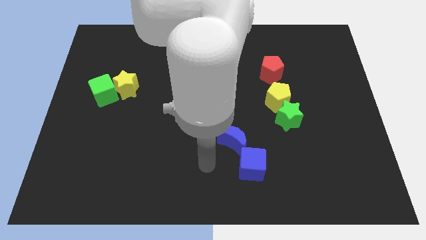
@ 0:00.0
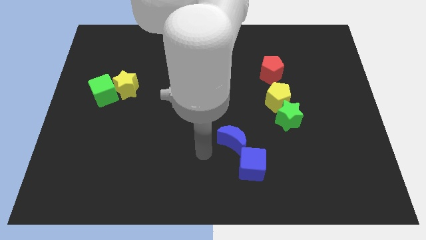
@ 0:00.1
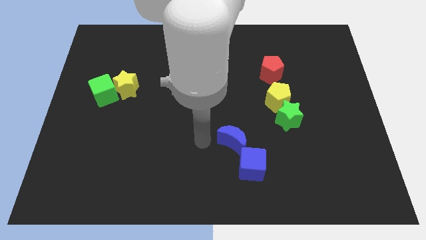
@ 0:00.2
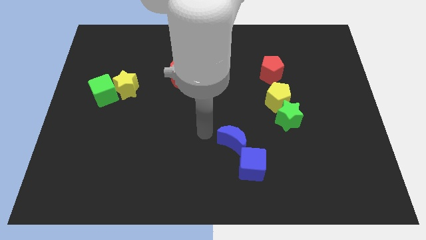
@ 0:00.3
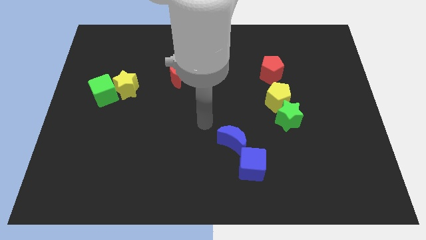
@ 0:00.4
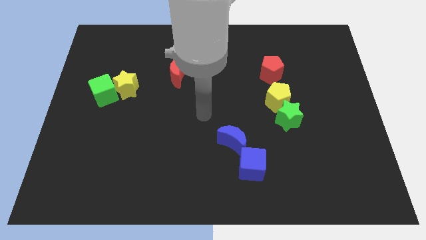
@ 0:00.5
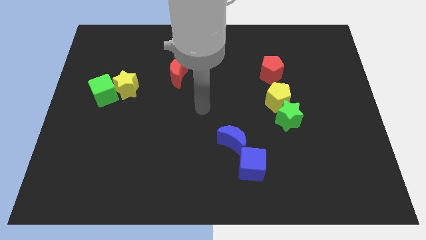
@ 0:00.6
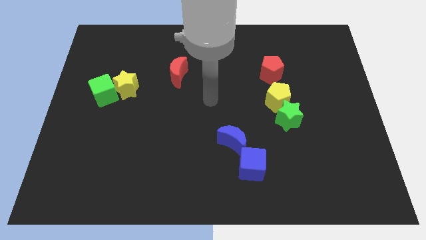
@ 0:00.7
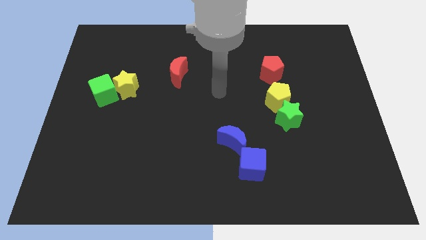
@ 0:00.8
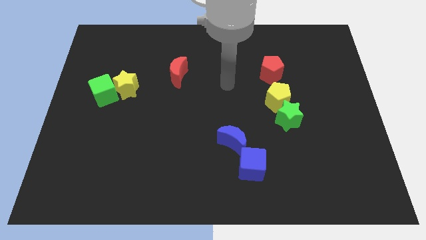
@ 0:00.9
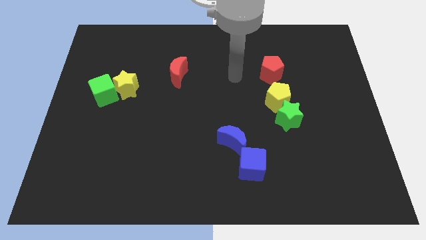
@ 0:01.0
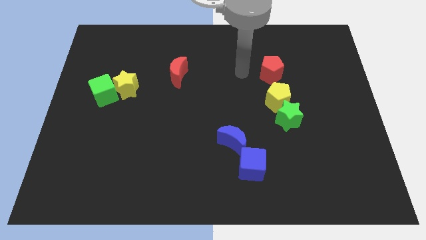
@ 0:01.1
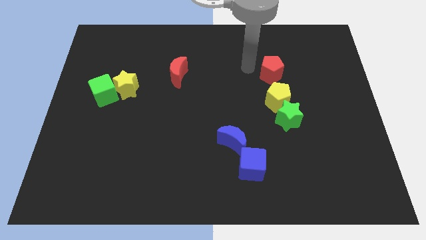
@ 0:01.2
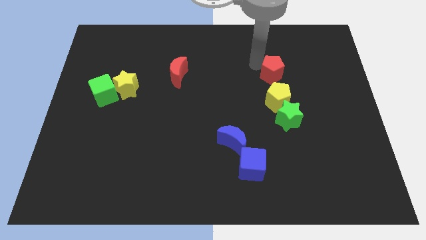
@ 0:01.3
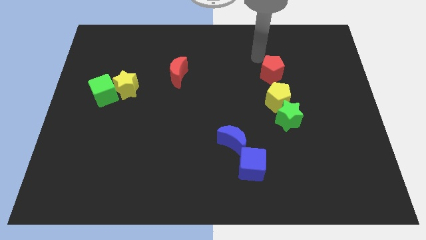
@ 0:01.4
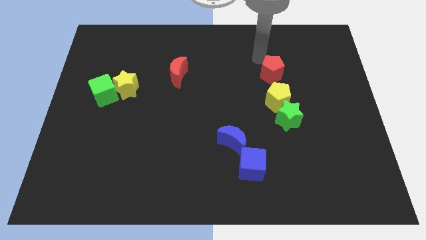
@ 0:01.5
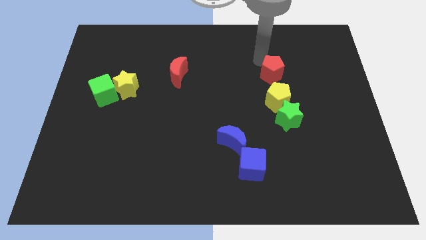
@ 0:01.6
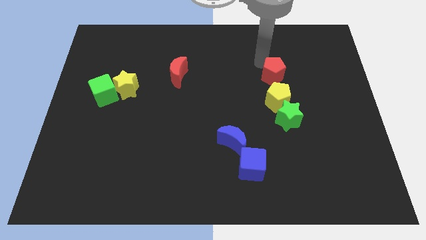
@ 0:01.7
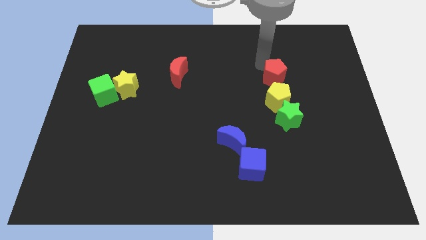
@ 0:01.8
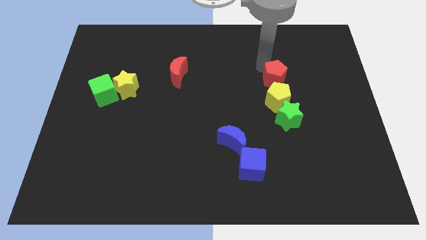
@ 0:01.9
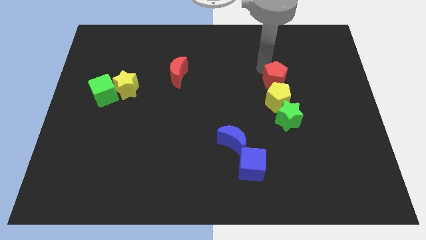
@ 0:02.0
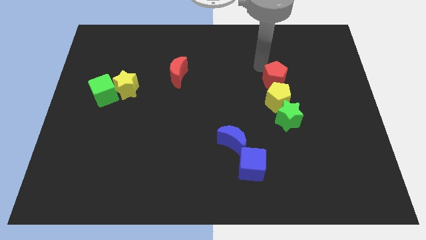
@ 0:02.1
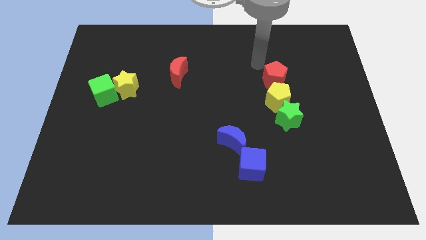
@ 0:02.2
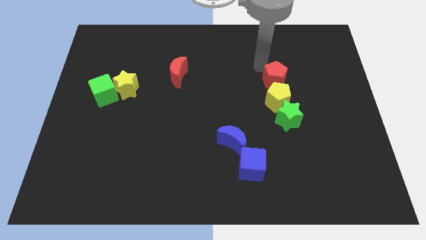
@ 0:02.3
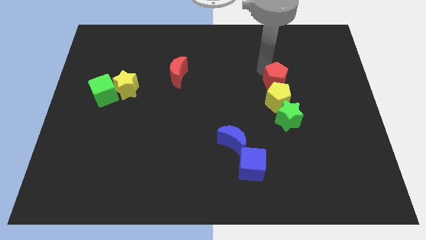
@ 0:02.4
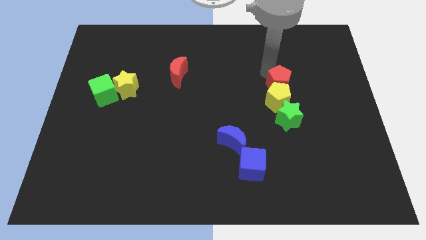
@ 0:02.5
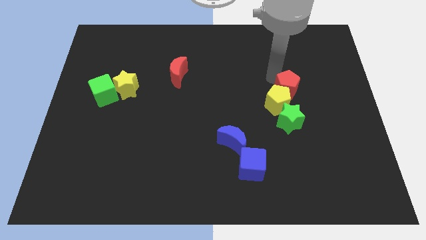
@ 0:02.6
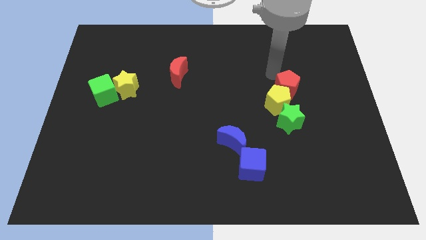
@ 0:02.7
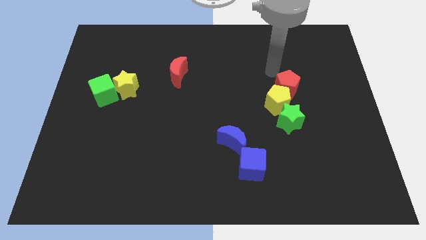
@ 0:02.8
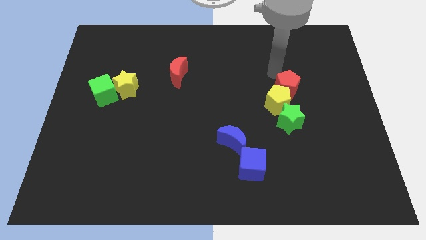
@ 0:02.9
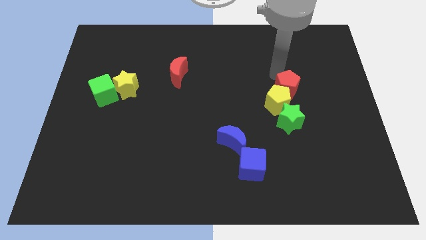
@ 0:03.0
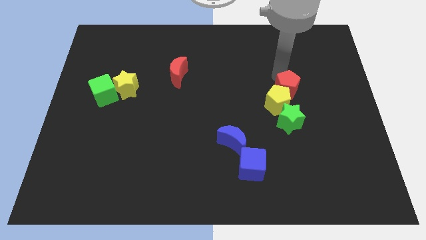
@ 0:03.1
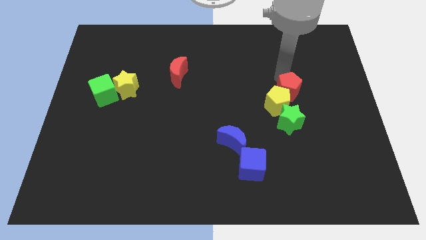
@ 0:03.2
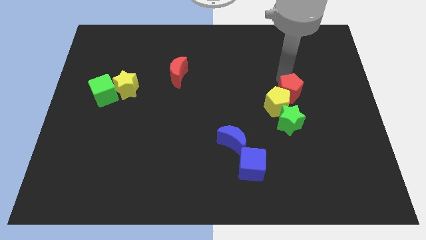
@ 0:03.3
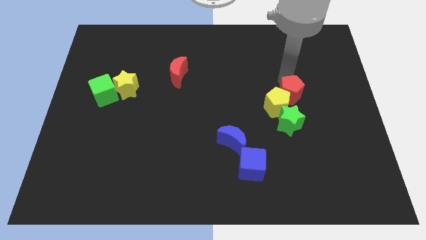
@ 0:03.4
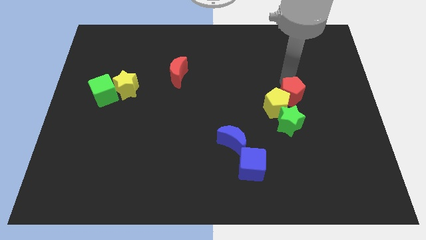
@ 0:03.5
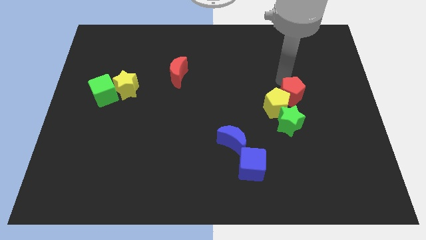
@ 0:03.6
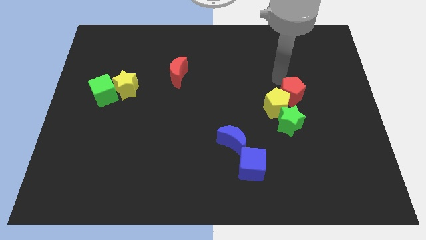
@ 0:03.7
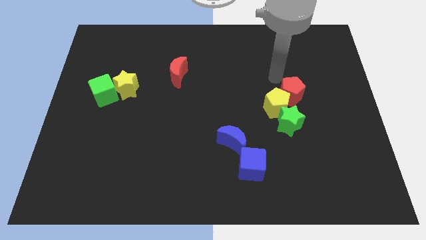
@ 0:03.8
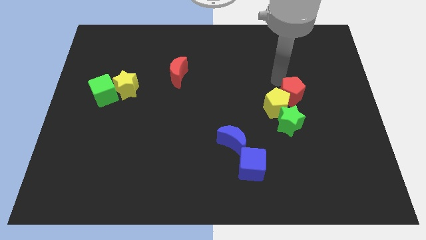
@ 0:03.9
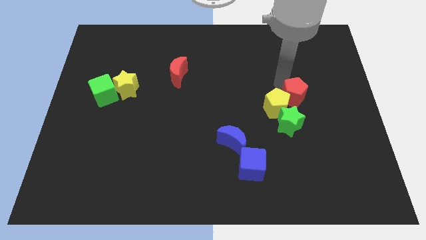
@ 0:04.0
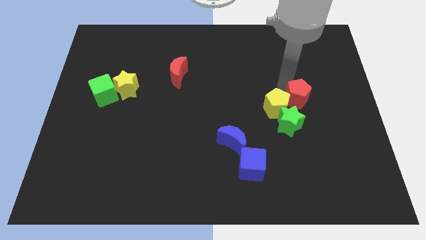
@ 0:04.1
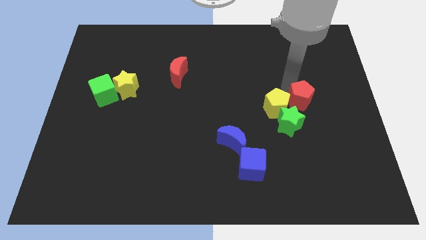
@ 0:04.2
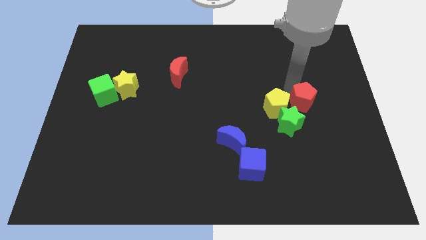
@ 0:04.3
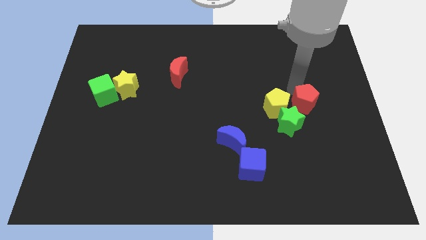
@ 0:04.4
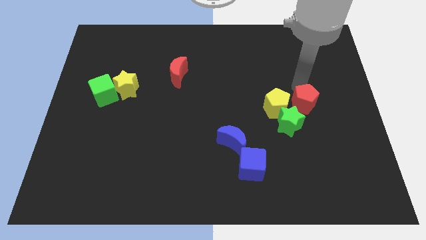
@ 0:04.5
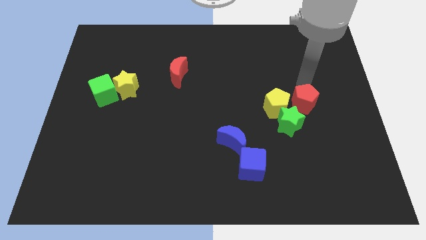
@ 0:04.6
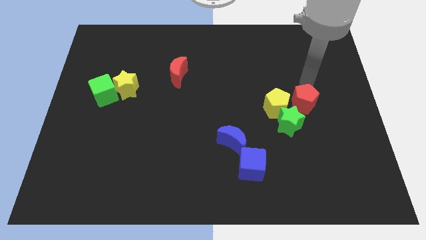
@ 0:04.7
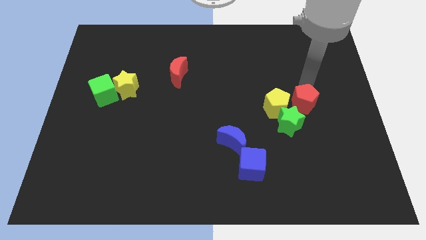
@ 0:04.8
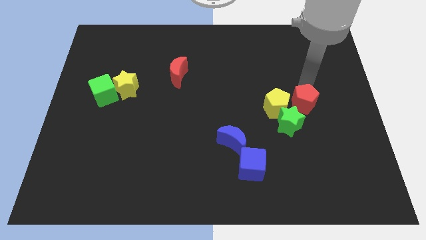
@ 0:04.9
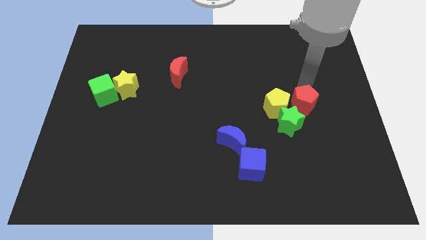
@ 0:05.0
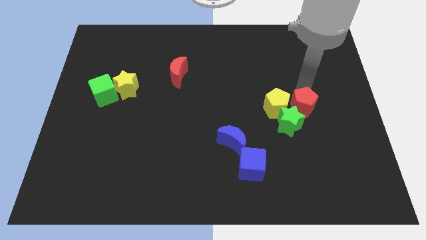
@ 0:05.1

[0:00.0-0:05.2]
slide the red pentagon to the bottom right of the yellow pentagon

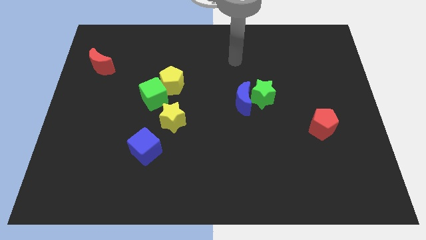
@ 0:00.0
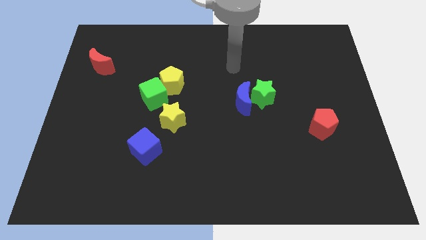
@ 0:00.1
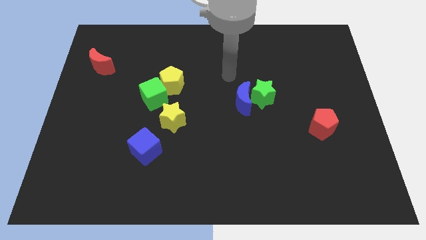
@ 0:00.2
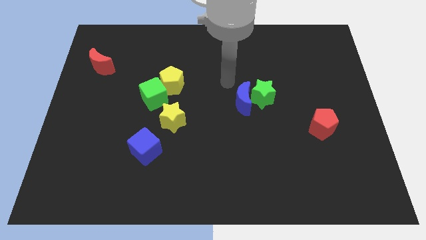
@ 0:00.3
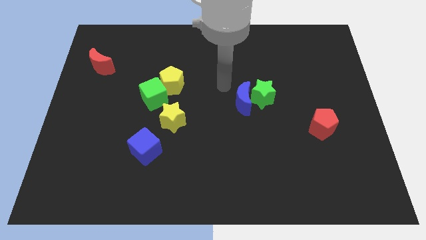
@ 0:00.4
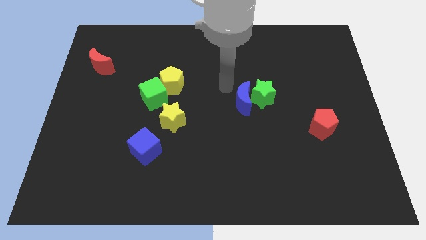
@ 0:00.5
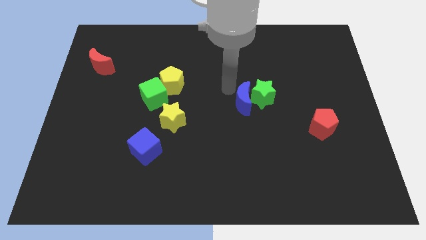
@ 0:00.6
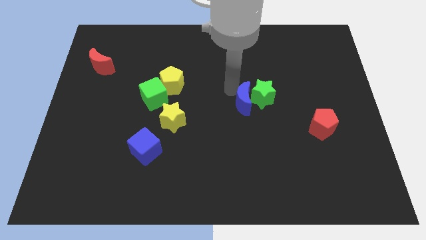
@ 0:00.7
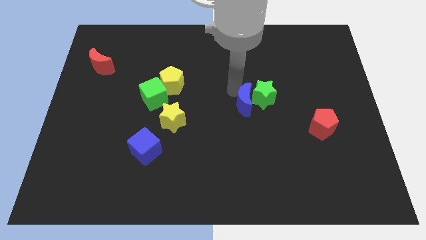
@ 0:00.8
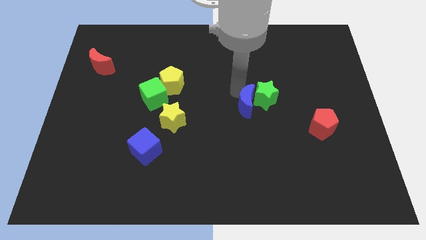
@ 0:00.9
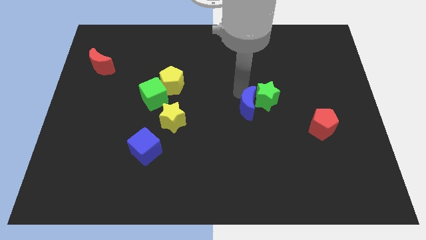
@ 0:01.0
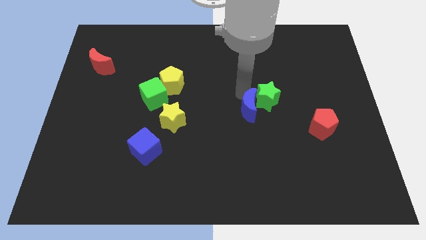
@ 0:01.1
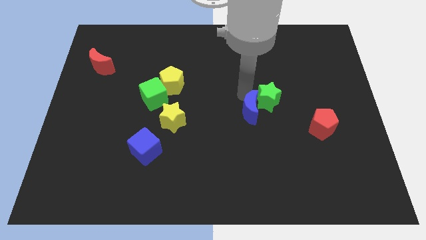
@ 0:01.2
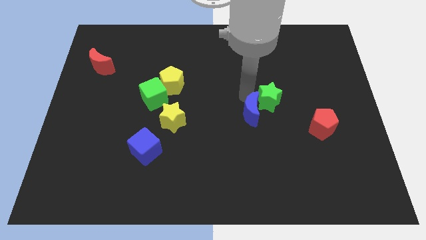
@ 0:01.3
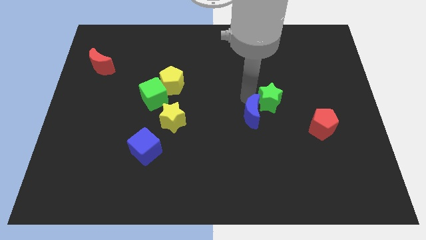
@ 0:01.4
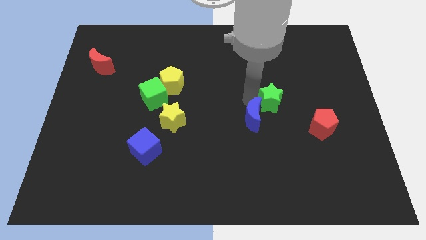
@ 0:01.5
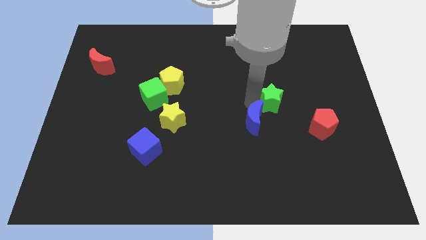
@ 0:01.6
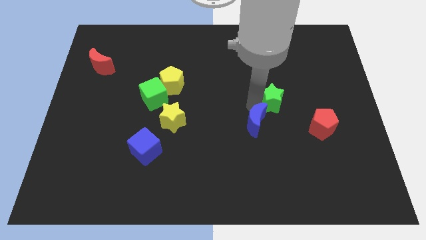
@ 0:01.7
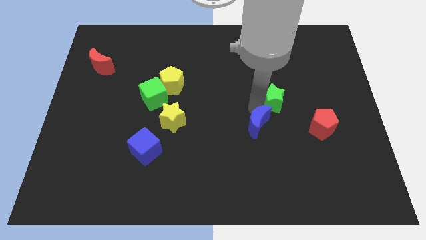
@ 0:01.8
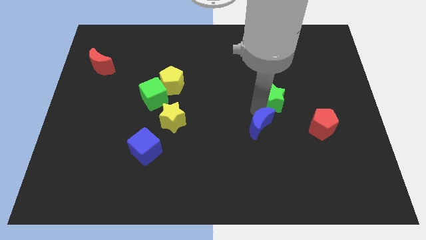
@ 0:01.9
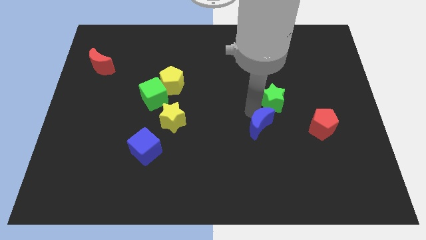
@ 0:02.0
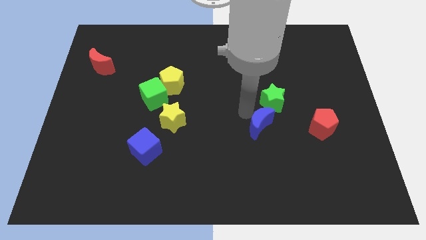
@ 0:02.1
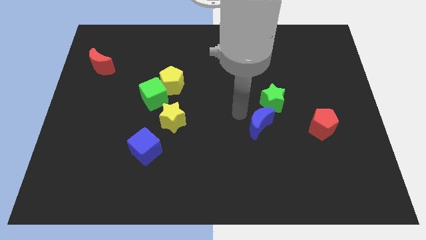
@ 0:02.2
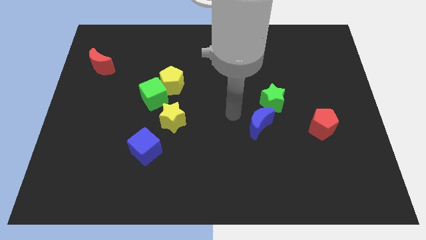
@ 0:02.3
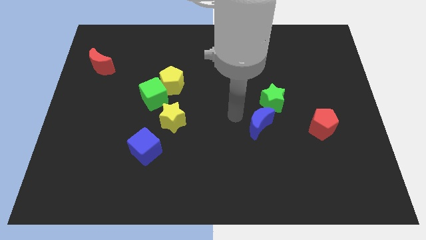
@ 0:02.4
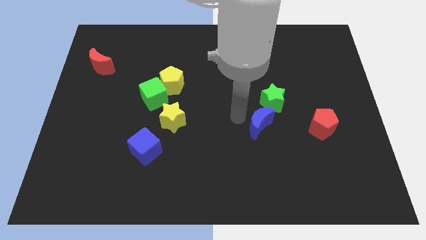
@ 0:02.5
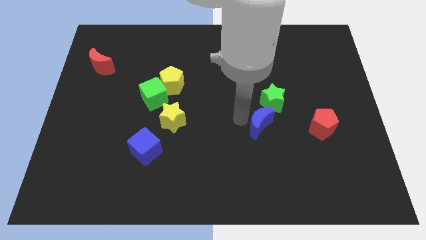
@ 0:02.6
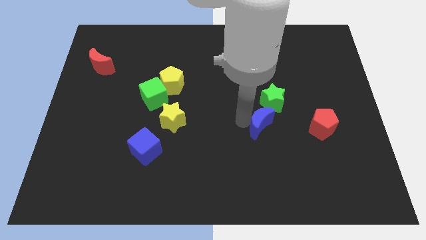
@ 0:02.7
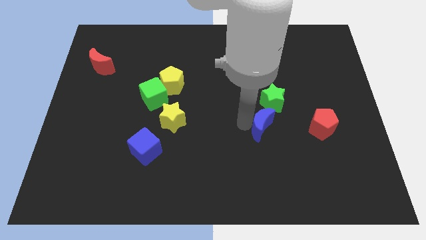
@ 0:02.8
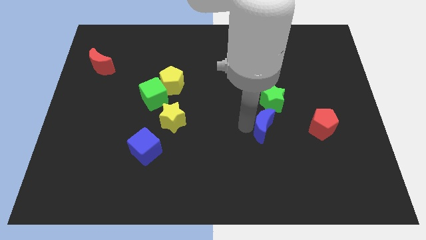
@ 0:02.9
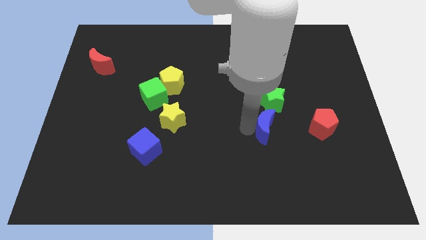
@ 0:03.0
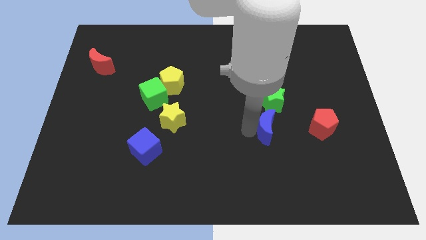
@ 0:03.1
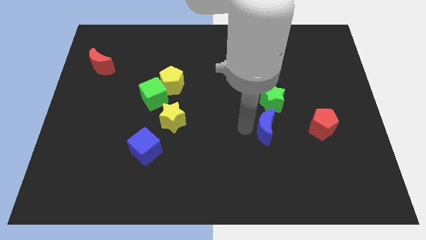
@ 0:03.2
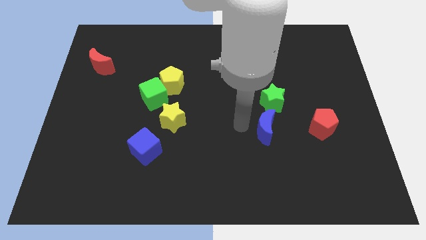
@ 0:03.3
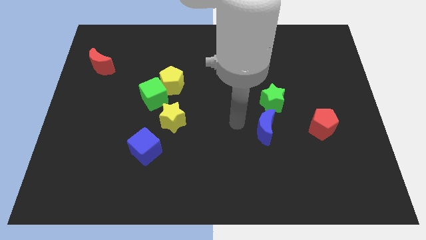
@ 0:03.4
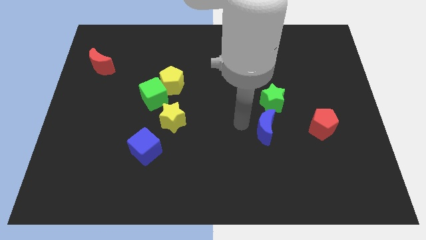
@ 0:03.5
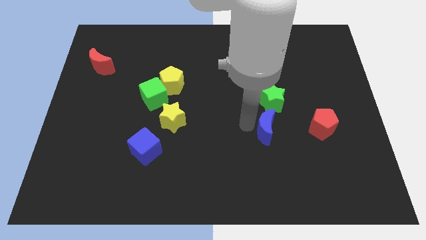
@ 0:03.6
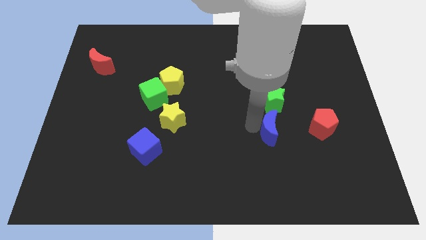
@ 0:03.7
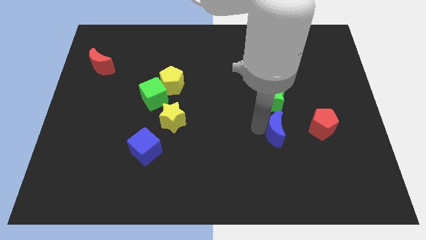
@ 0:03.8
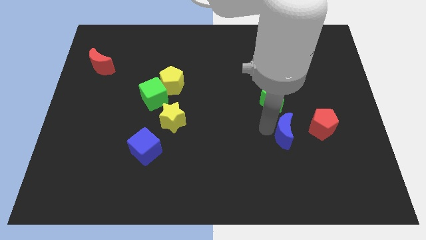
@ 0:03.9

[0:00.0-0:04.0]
slide the blue moon to the bottom left side of the red pentagon
